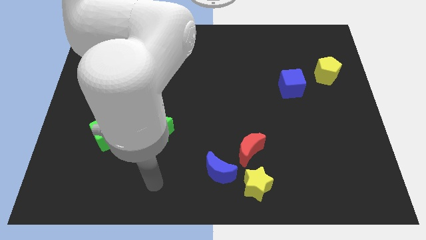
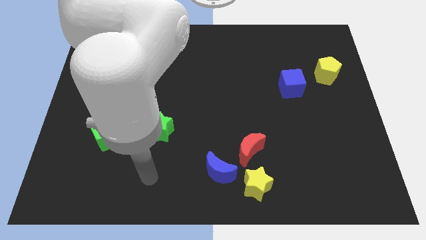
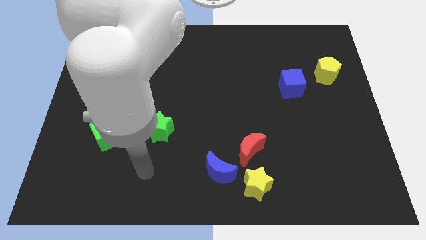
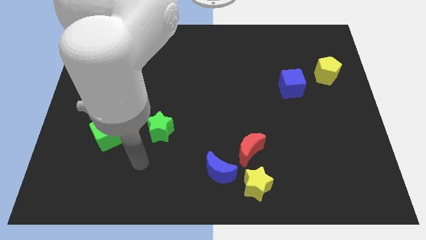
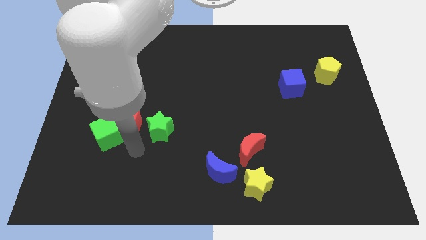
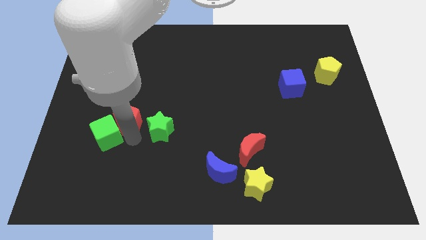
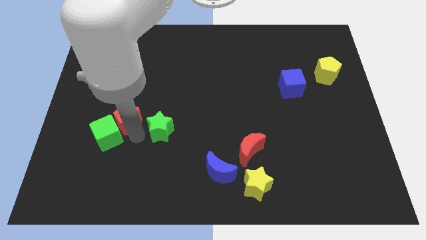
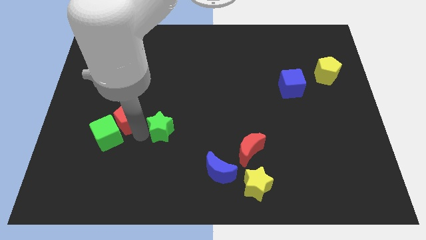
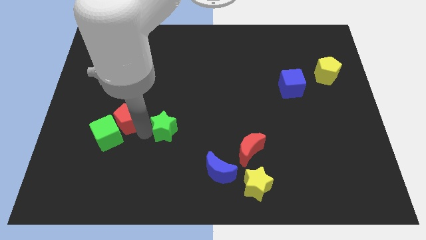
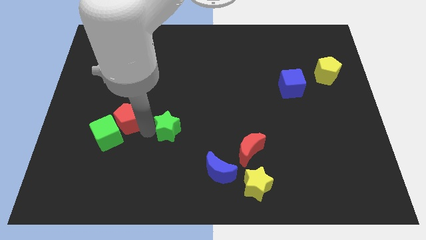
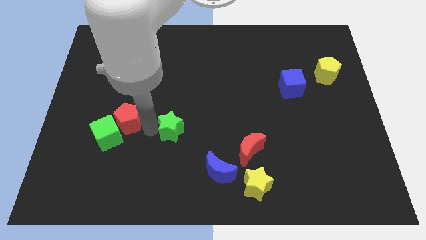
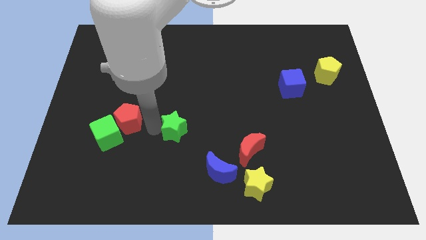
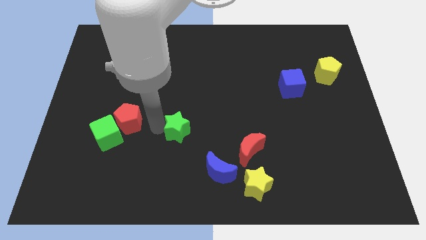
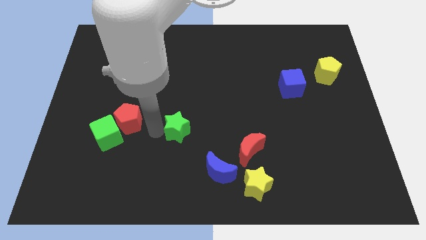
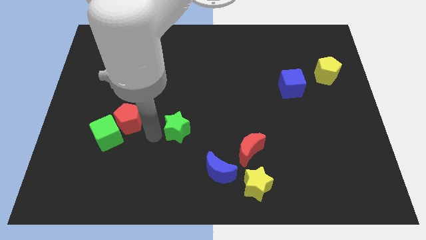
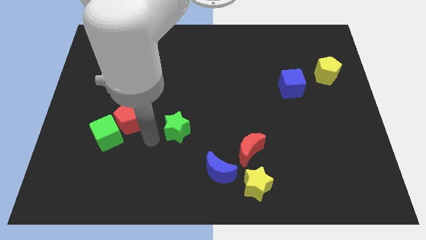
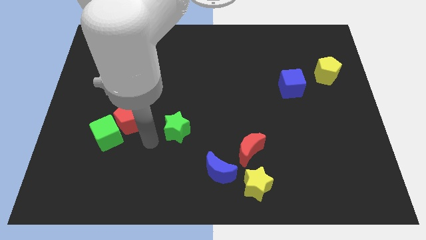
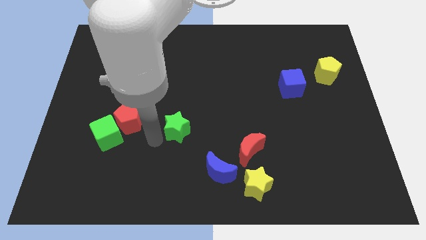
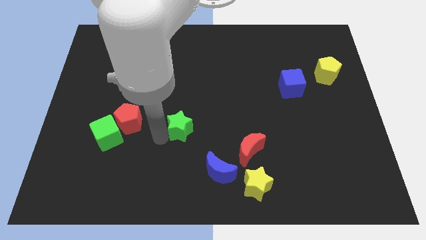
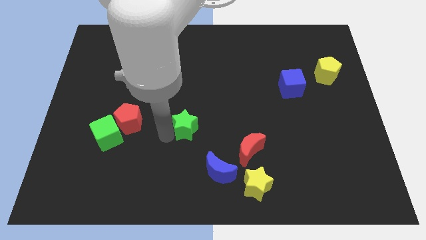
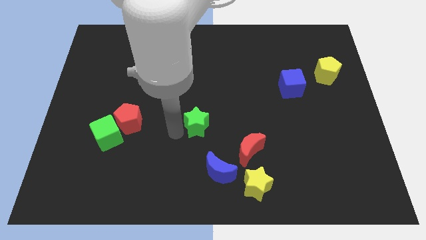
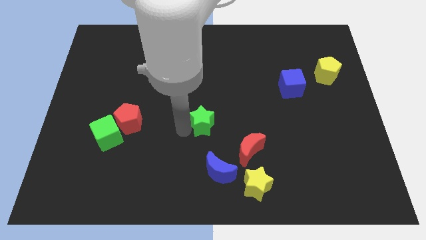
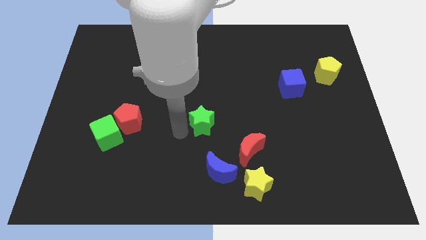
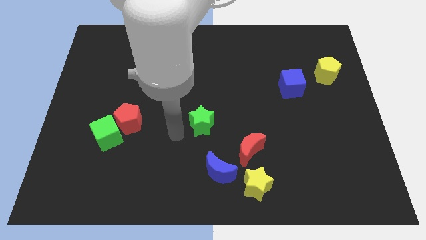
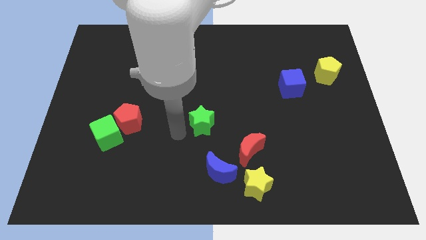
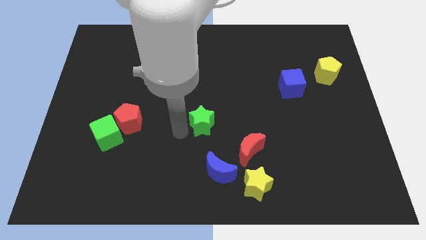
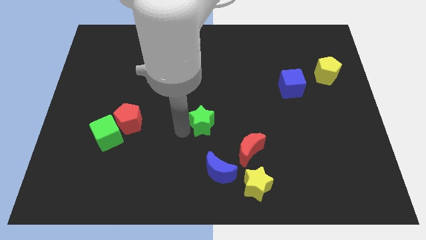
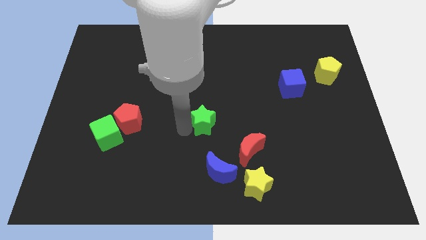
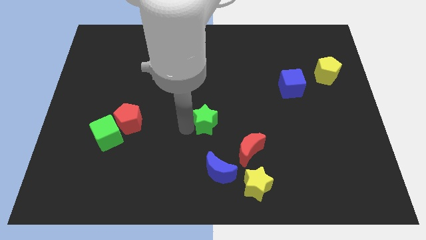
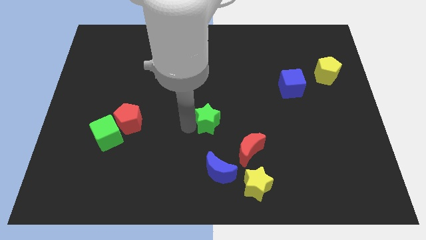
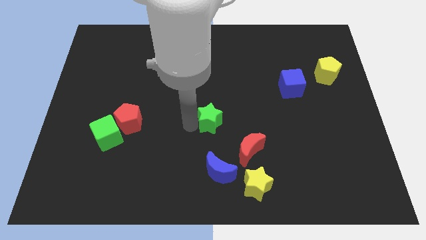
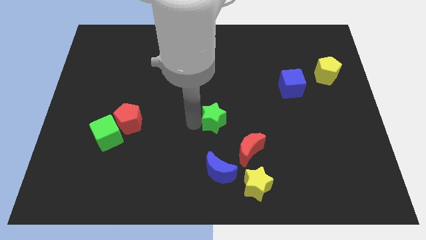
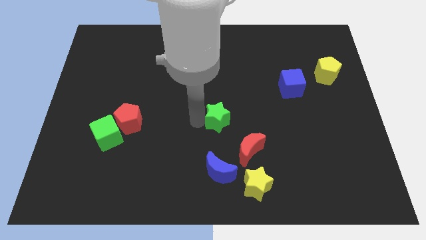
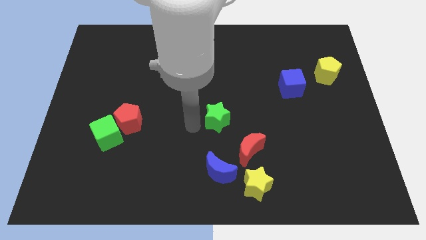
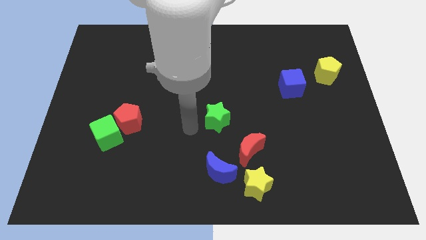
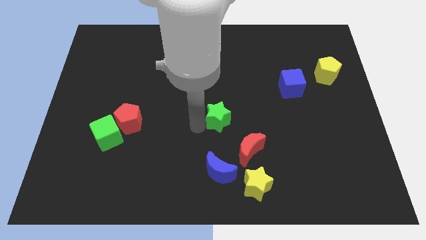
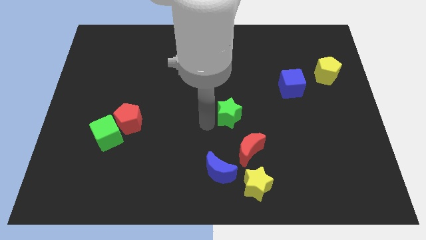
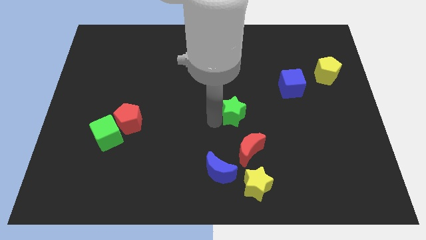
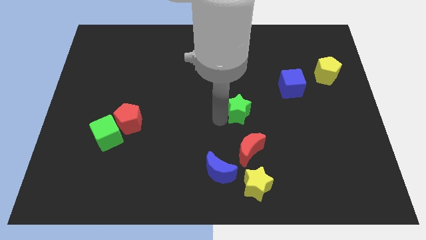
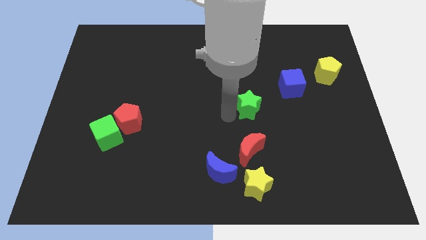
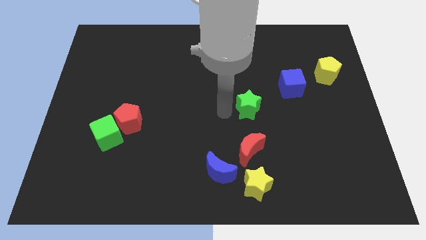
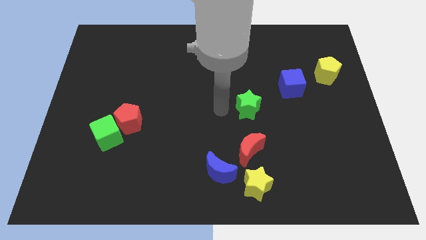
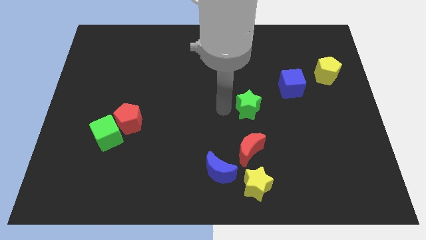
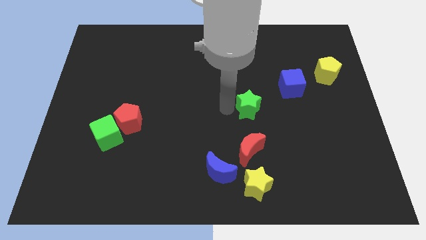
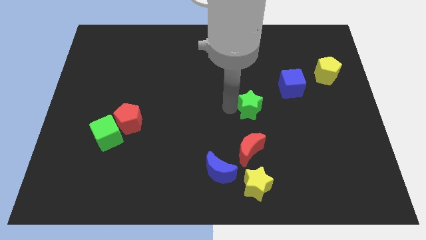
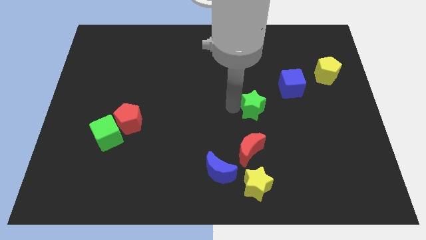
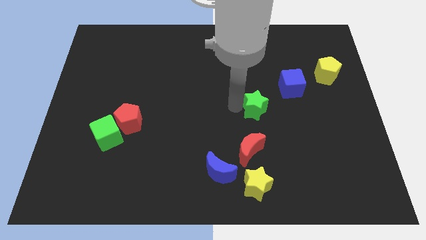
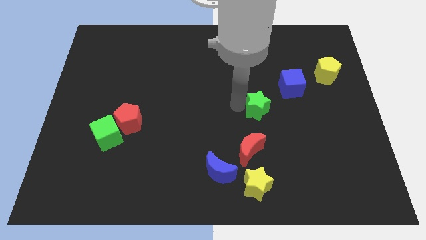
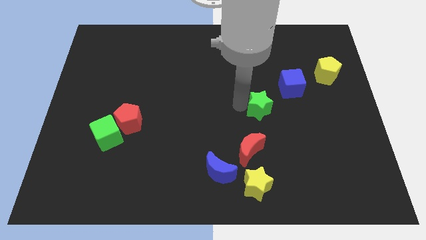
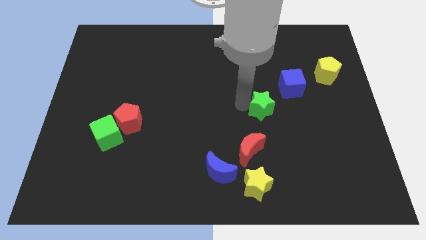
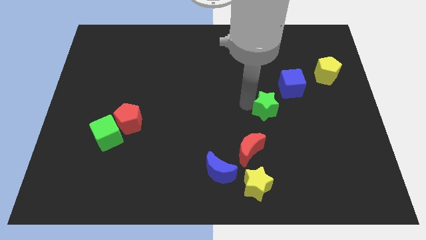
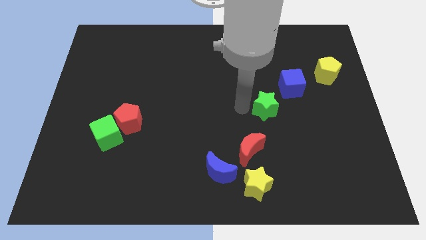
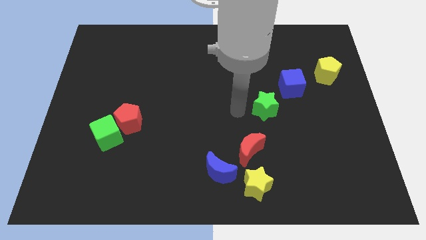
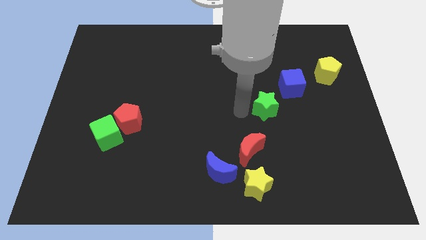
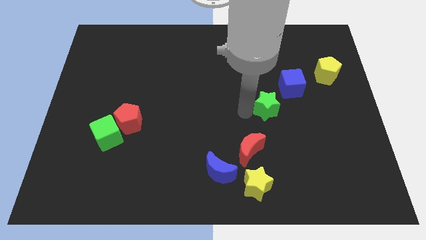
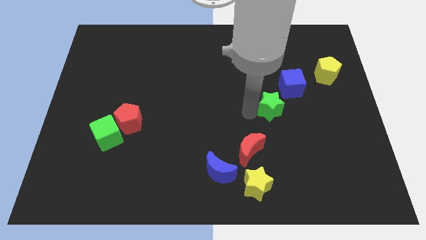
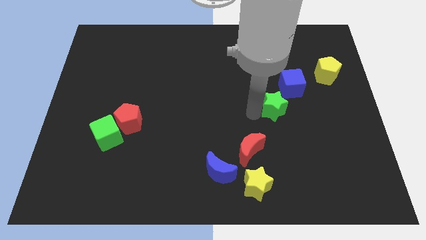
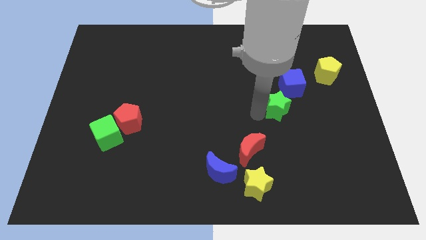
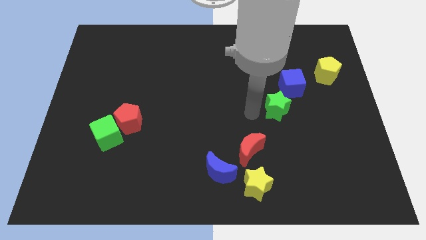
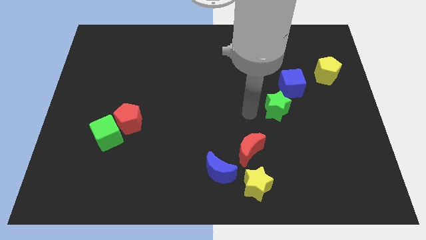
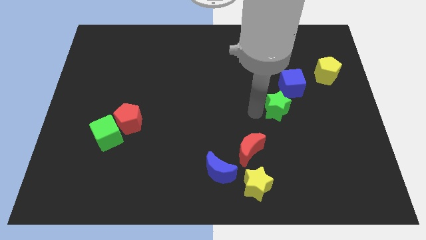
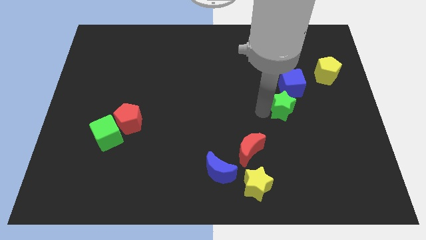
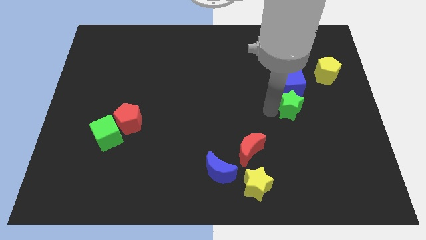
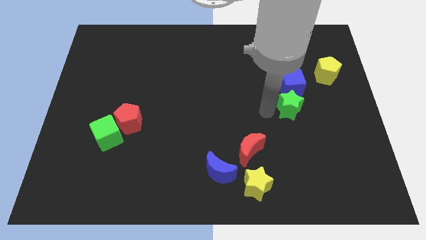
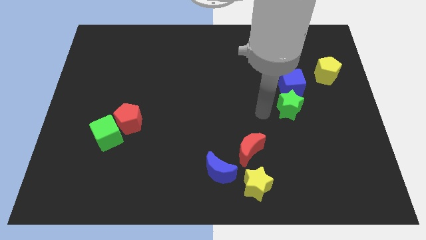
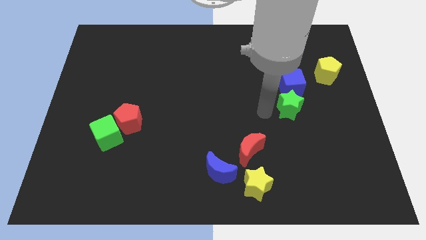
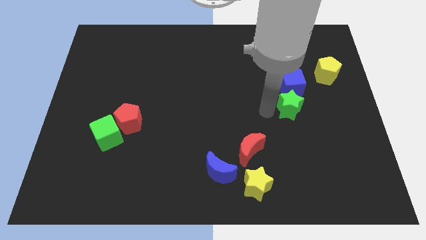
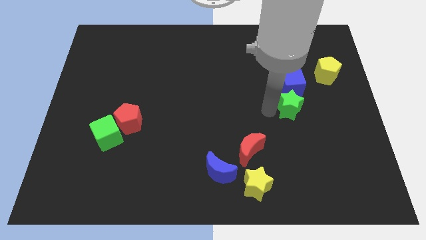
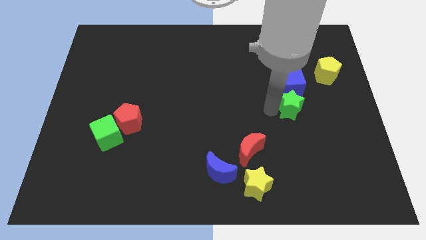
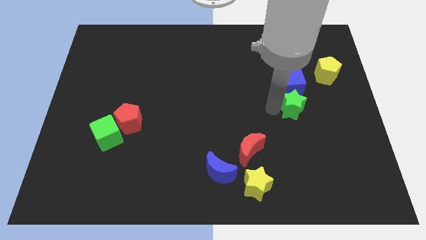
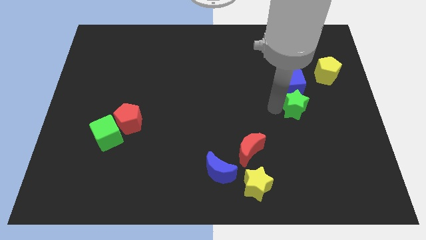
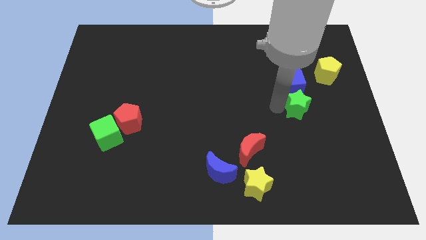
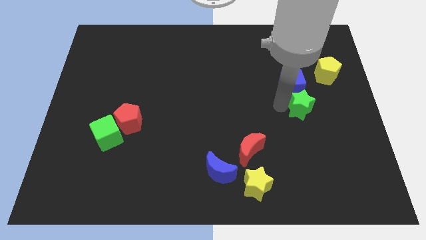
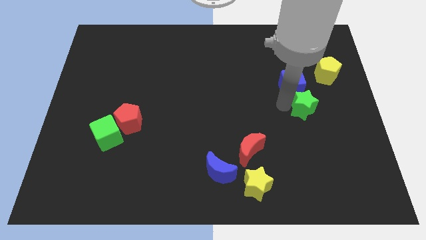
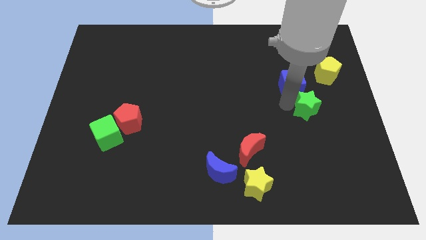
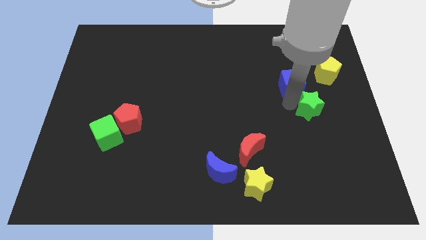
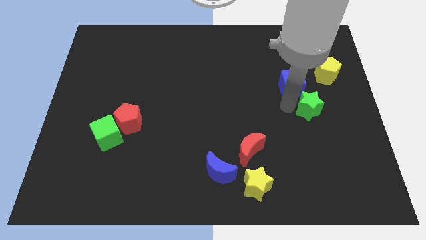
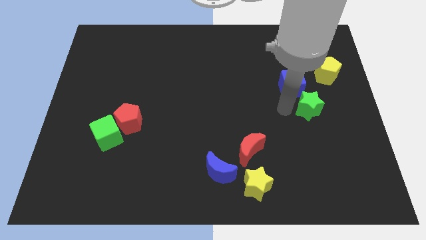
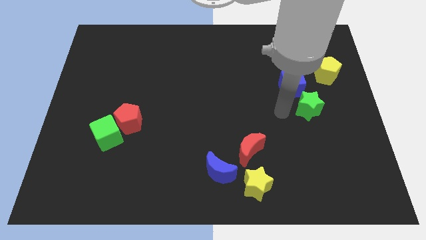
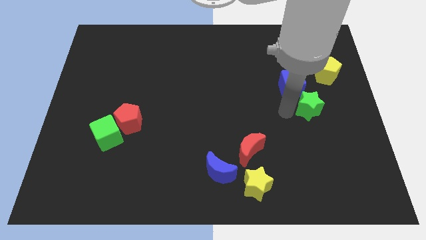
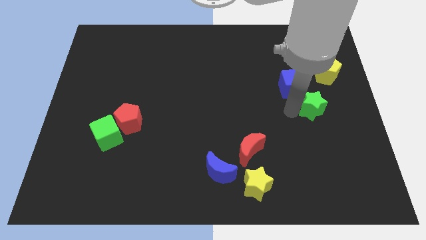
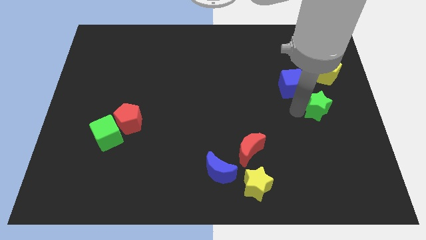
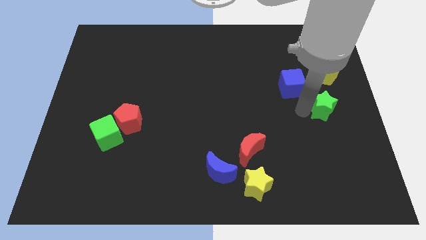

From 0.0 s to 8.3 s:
push the green star to the center right
